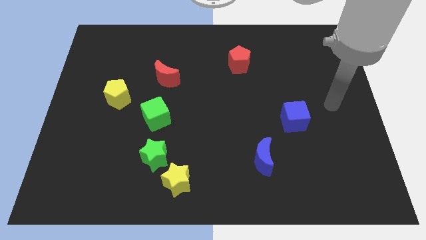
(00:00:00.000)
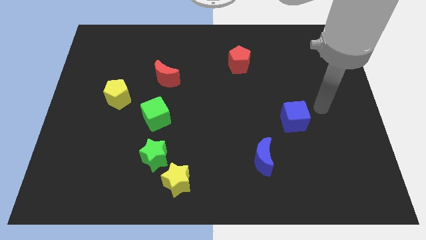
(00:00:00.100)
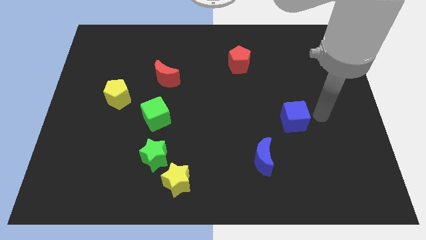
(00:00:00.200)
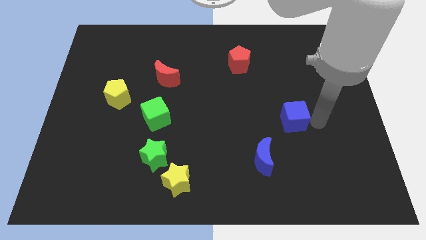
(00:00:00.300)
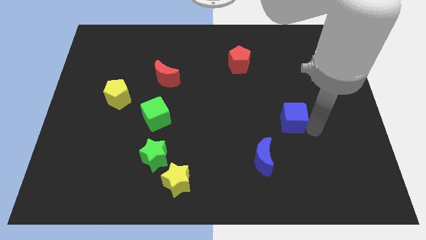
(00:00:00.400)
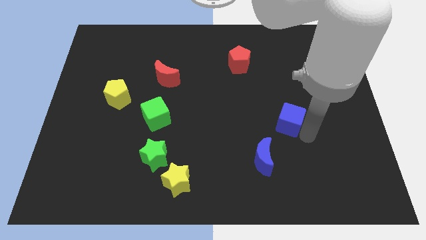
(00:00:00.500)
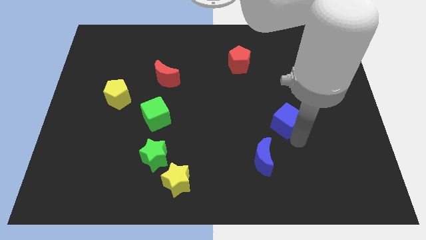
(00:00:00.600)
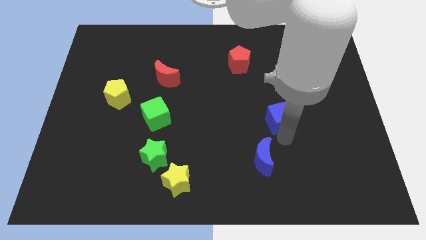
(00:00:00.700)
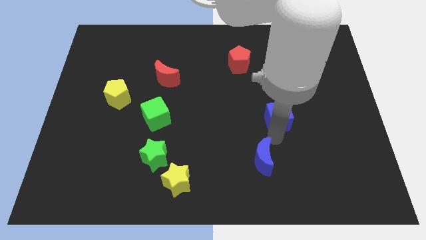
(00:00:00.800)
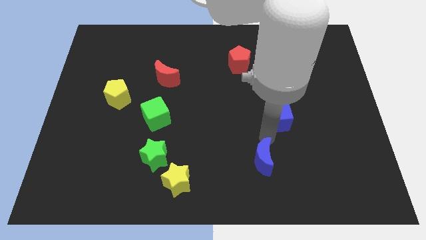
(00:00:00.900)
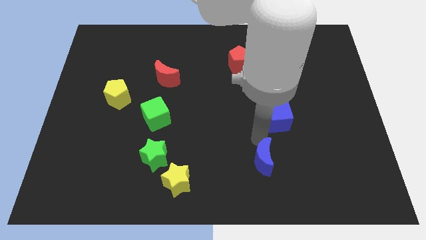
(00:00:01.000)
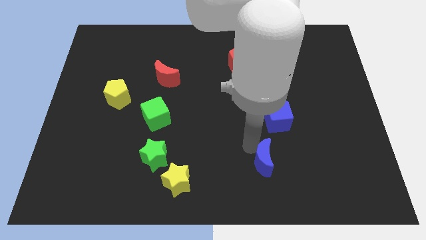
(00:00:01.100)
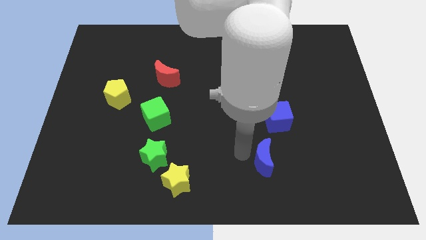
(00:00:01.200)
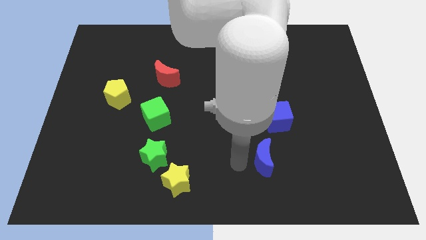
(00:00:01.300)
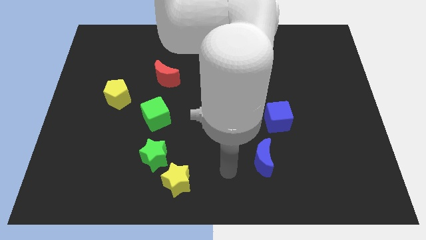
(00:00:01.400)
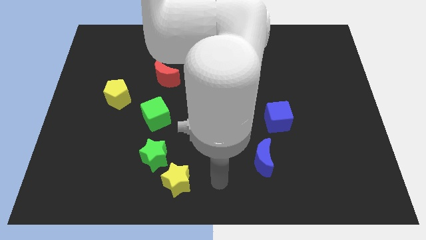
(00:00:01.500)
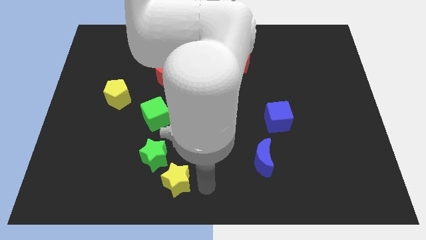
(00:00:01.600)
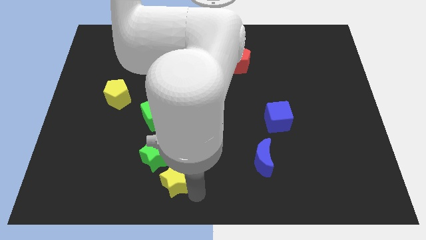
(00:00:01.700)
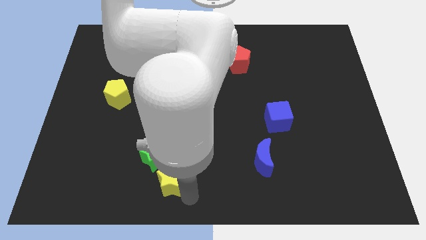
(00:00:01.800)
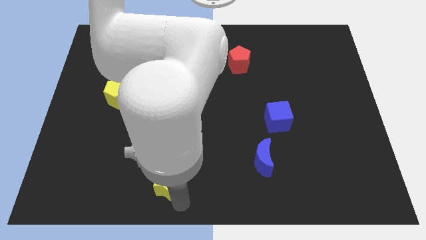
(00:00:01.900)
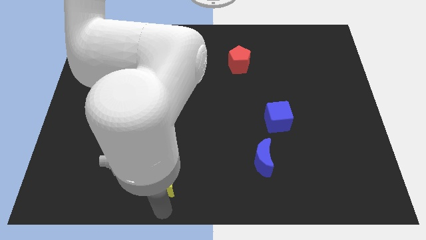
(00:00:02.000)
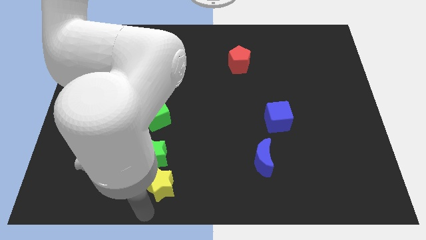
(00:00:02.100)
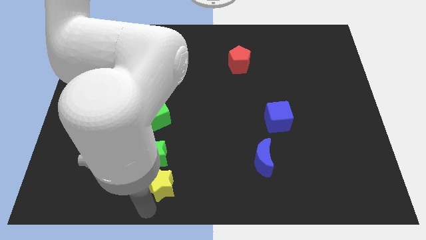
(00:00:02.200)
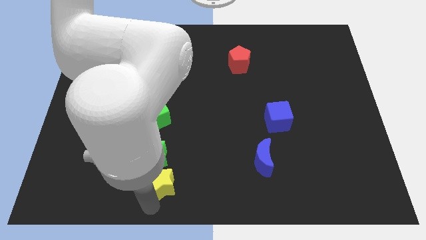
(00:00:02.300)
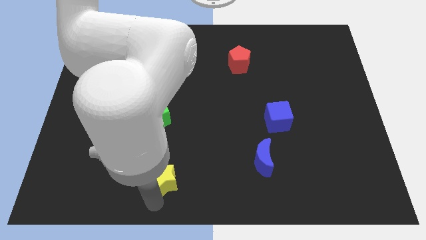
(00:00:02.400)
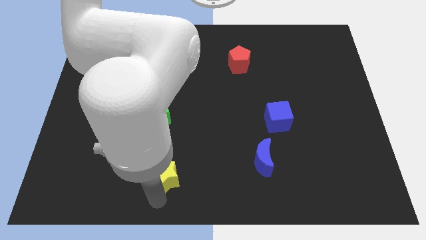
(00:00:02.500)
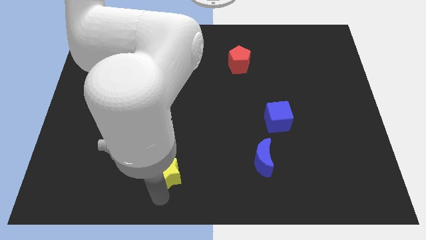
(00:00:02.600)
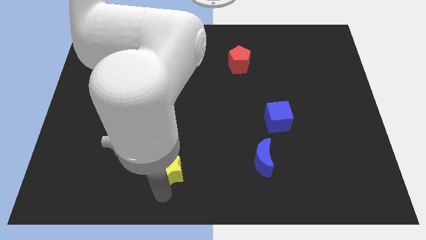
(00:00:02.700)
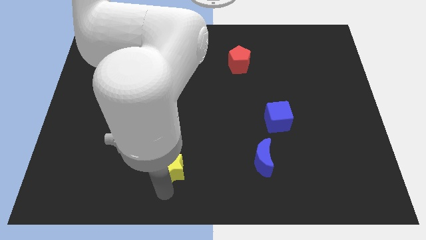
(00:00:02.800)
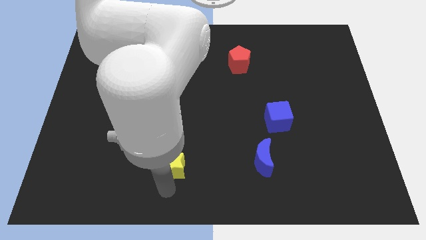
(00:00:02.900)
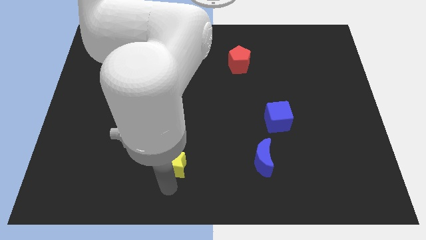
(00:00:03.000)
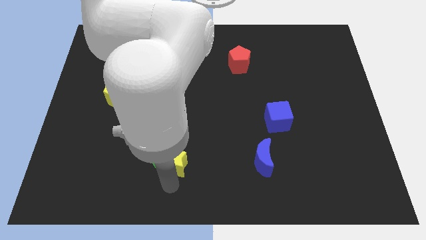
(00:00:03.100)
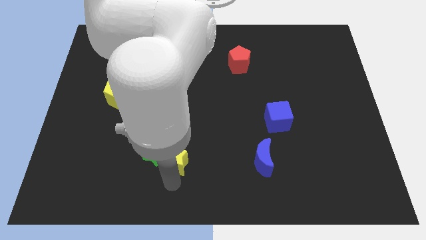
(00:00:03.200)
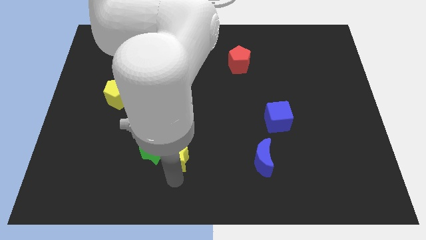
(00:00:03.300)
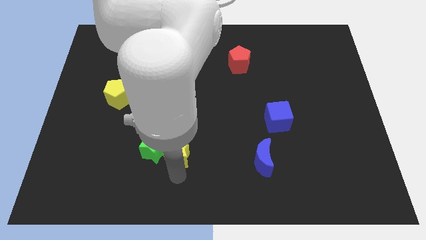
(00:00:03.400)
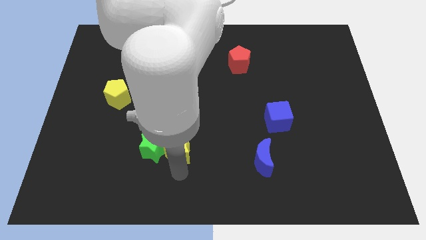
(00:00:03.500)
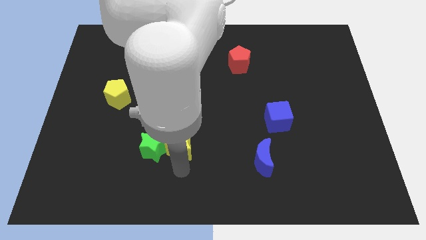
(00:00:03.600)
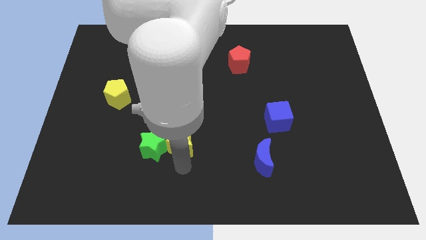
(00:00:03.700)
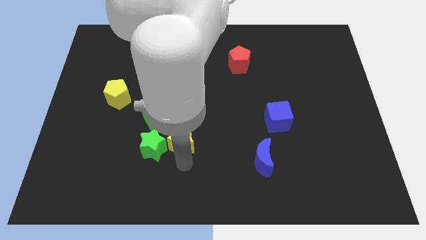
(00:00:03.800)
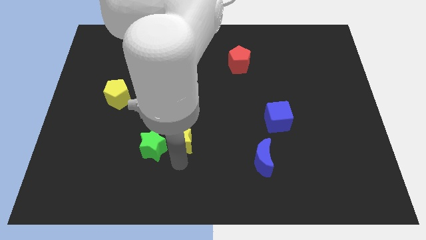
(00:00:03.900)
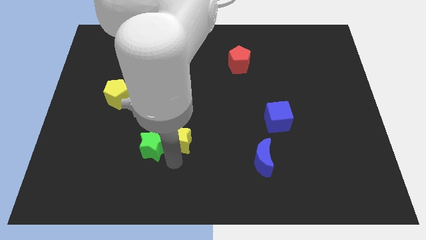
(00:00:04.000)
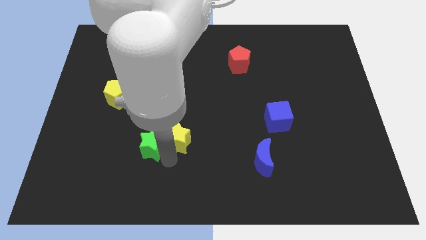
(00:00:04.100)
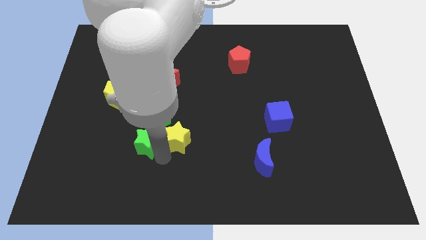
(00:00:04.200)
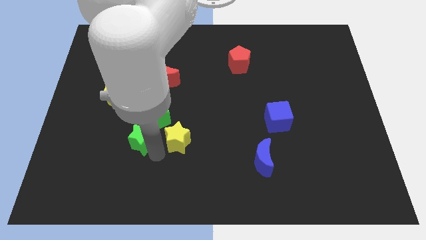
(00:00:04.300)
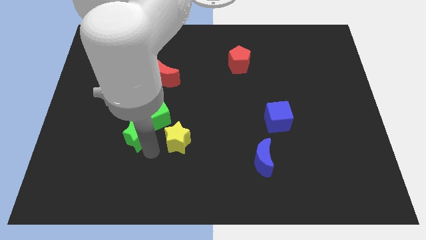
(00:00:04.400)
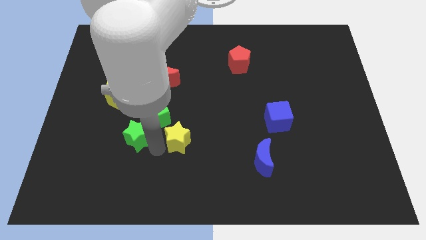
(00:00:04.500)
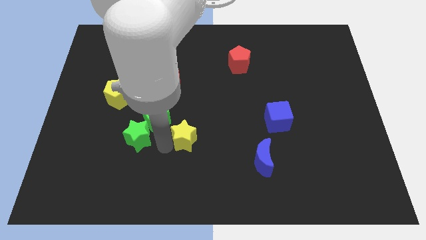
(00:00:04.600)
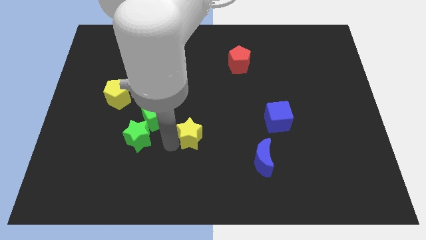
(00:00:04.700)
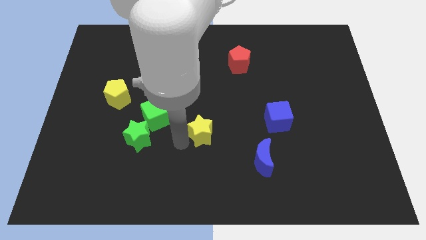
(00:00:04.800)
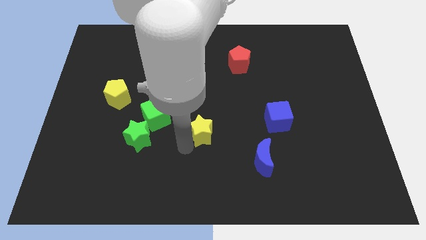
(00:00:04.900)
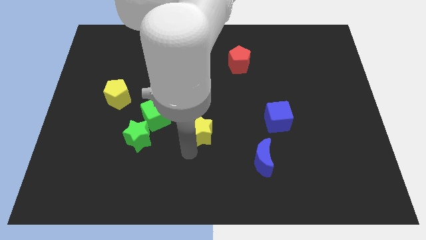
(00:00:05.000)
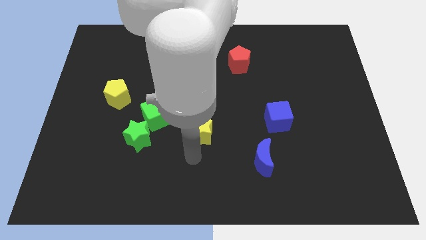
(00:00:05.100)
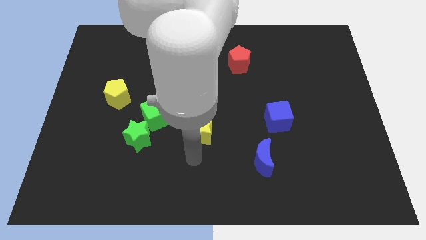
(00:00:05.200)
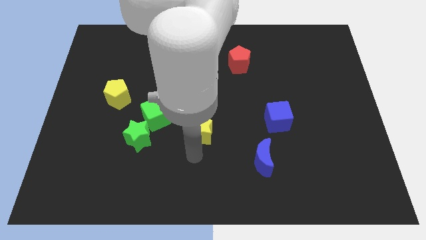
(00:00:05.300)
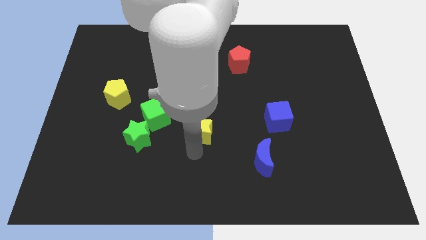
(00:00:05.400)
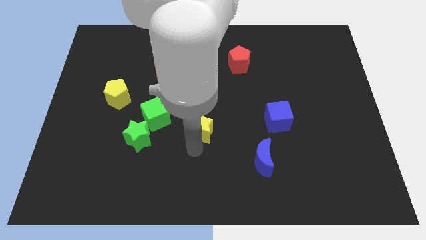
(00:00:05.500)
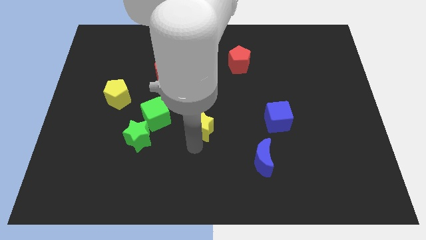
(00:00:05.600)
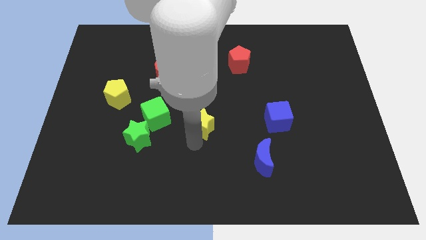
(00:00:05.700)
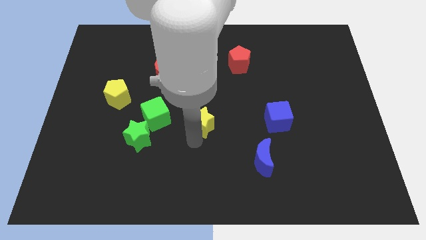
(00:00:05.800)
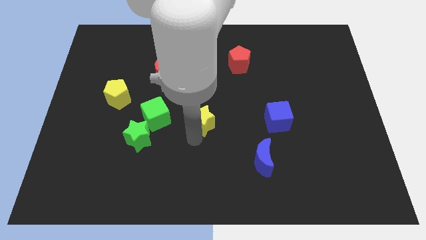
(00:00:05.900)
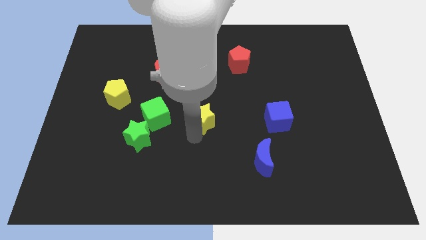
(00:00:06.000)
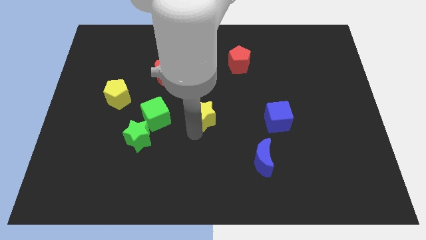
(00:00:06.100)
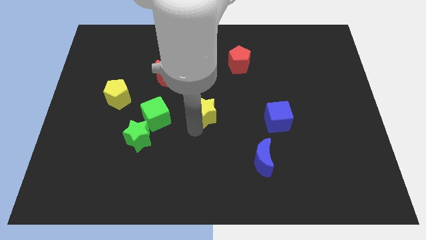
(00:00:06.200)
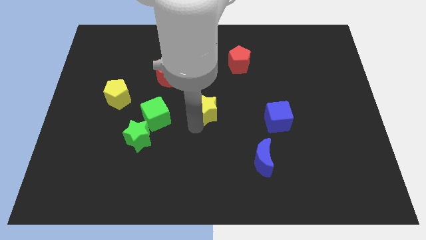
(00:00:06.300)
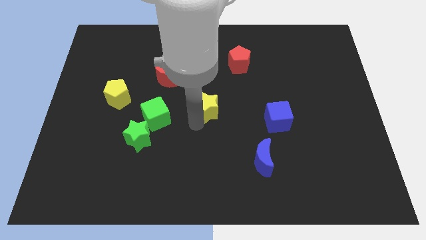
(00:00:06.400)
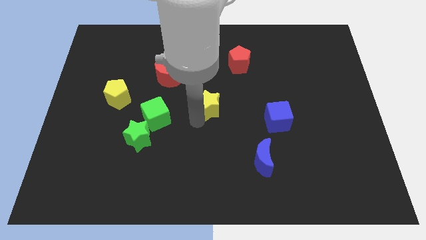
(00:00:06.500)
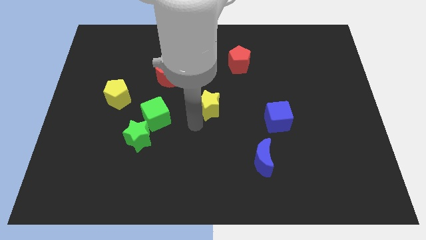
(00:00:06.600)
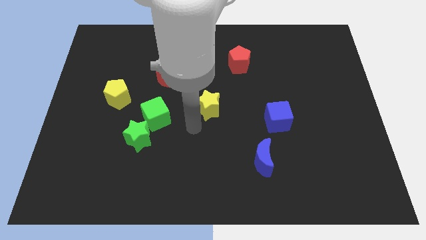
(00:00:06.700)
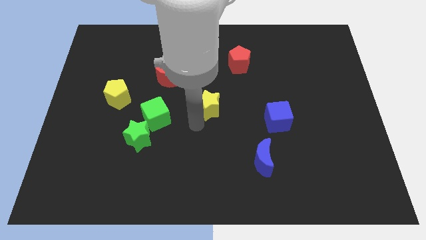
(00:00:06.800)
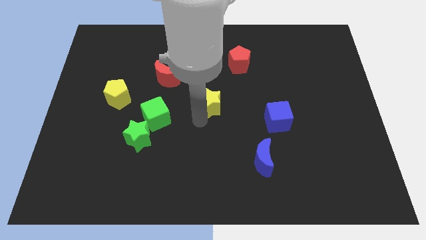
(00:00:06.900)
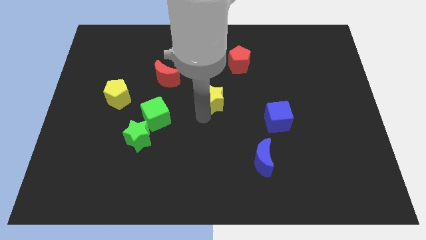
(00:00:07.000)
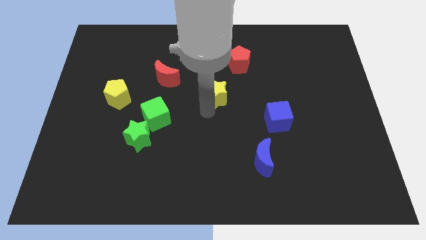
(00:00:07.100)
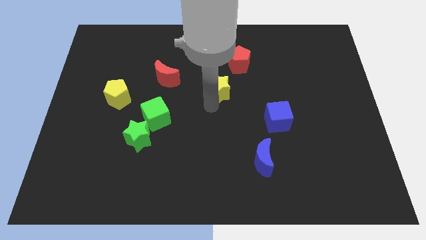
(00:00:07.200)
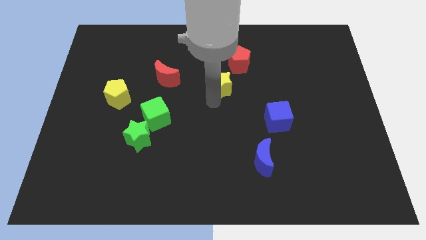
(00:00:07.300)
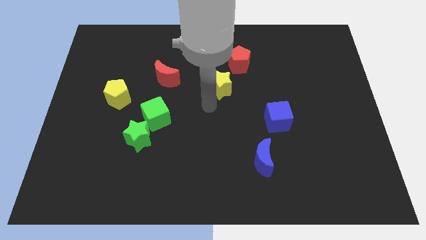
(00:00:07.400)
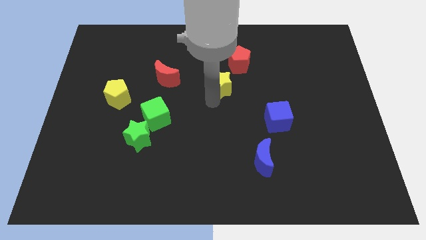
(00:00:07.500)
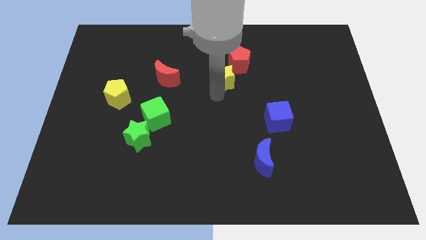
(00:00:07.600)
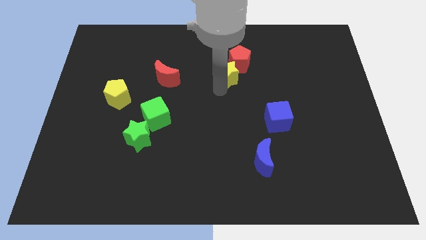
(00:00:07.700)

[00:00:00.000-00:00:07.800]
slide the yellow star next to the red pentagon
